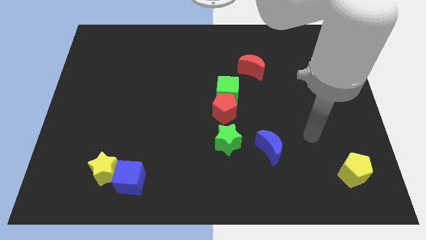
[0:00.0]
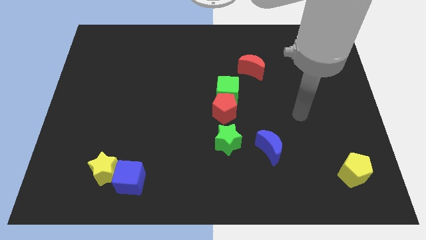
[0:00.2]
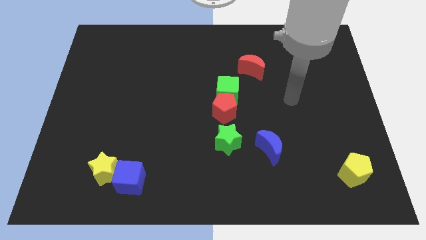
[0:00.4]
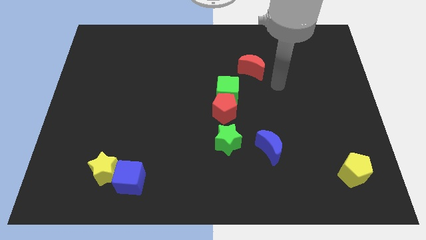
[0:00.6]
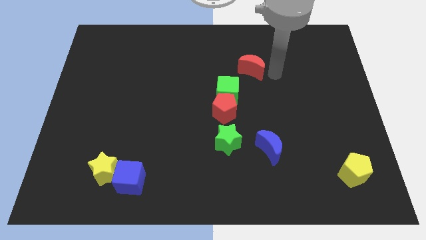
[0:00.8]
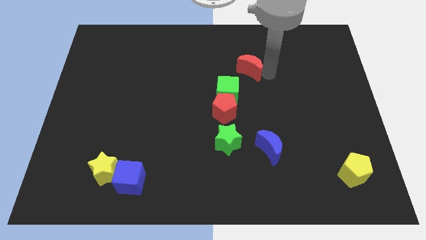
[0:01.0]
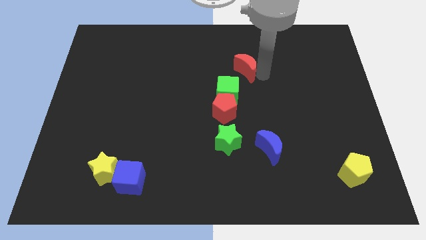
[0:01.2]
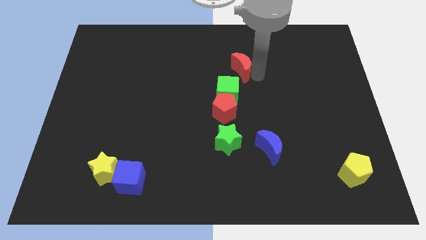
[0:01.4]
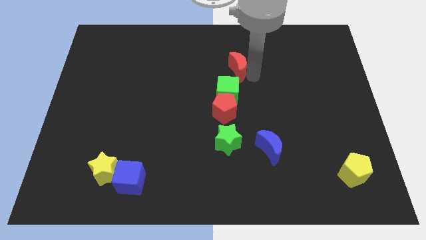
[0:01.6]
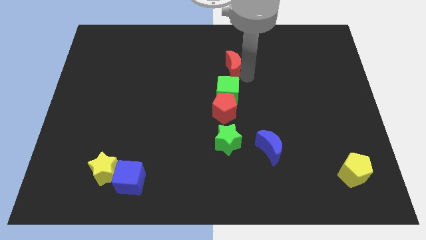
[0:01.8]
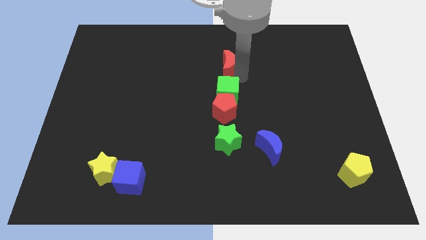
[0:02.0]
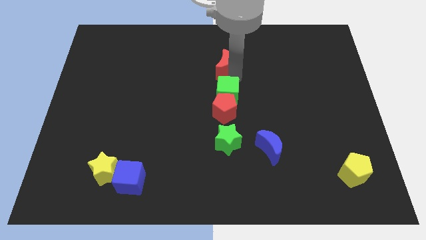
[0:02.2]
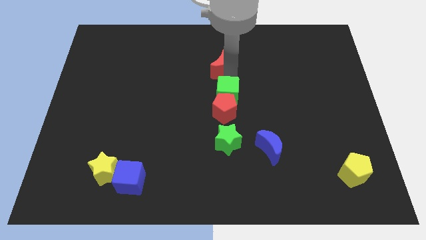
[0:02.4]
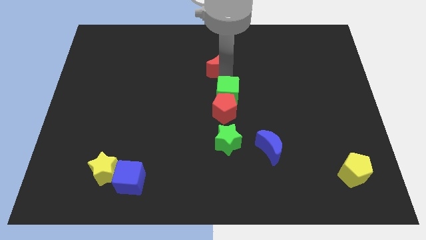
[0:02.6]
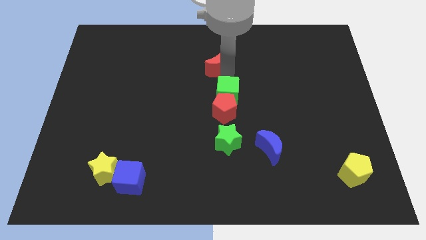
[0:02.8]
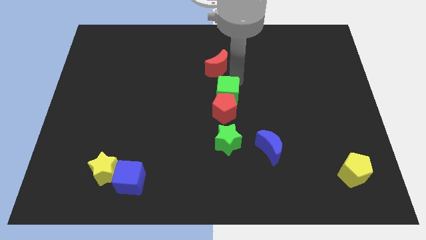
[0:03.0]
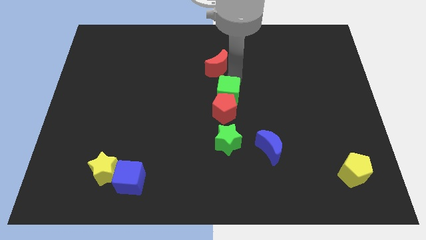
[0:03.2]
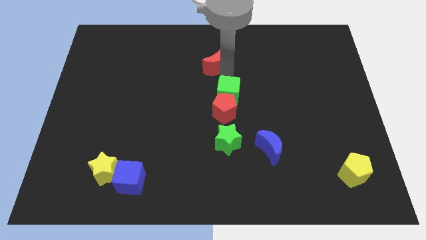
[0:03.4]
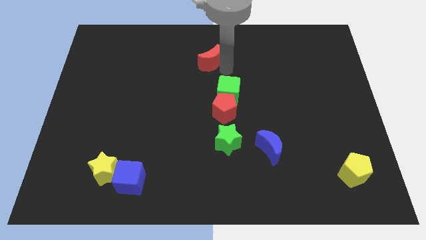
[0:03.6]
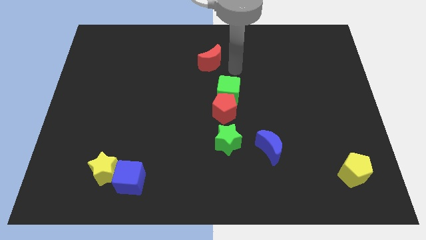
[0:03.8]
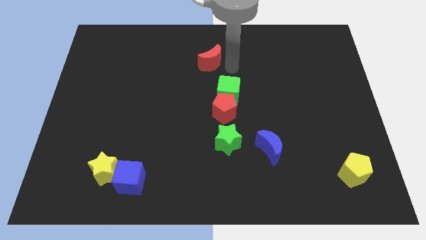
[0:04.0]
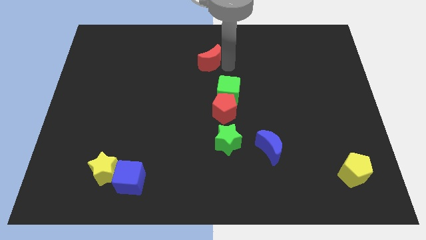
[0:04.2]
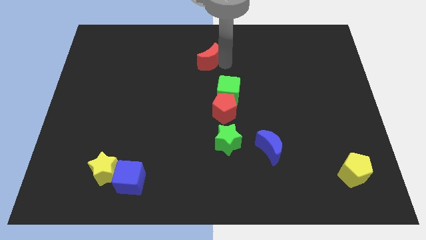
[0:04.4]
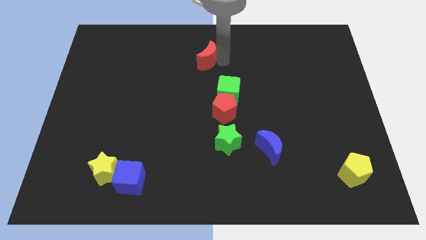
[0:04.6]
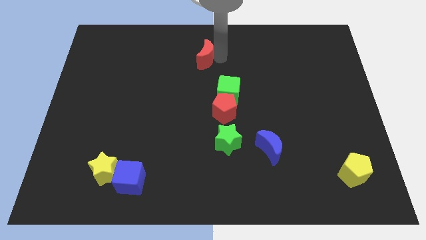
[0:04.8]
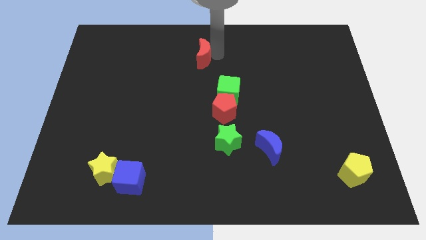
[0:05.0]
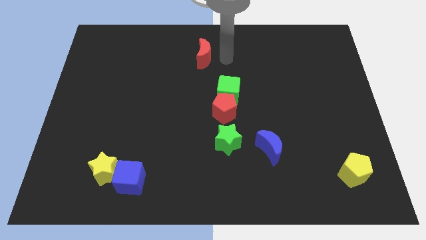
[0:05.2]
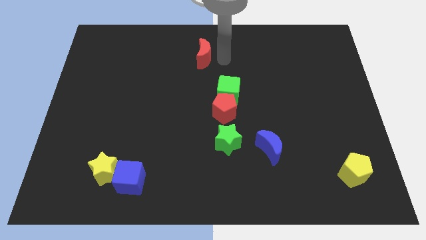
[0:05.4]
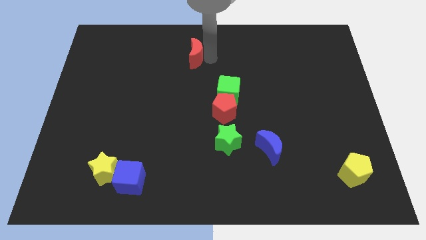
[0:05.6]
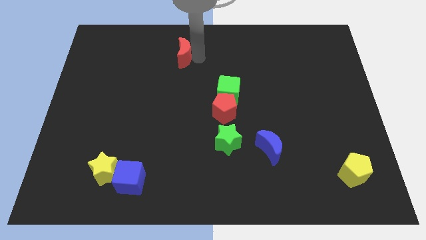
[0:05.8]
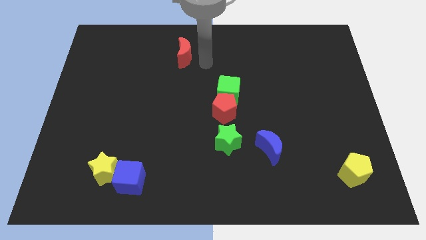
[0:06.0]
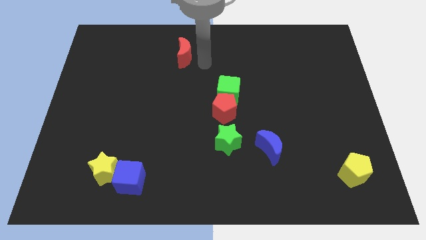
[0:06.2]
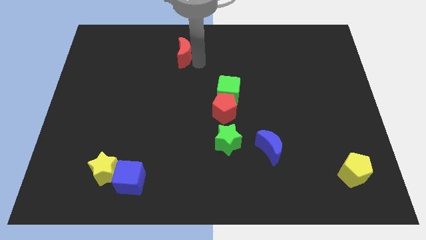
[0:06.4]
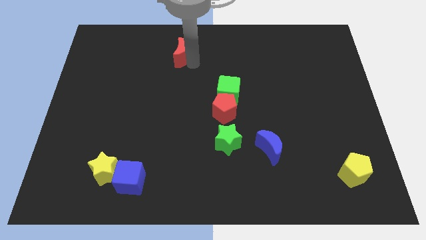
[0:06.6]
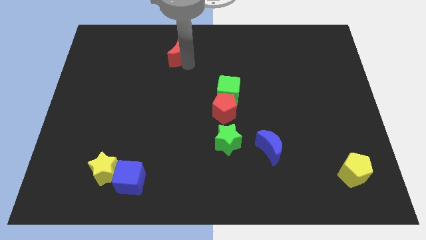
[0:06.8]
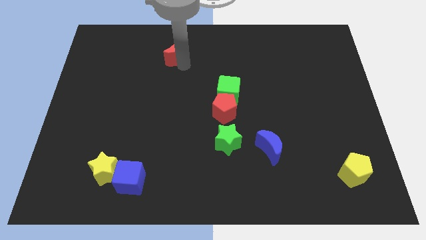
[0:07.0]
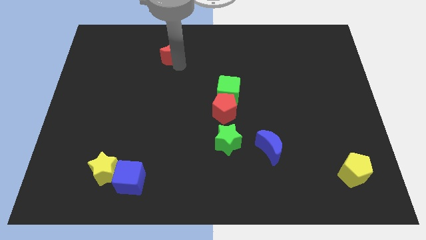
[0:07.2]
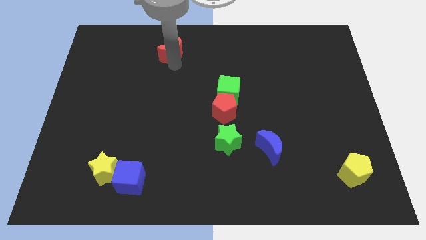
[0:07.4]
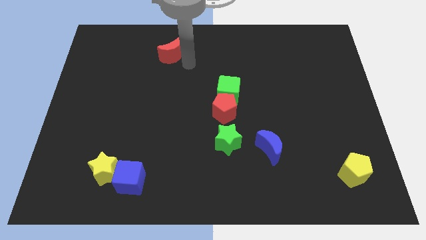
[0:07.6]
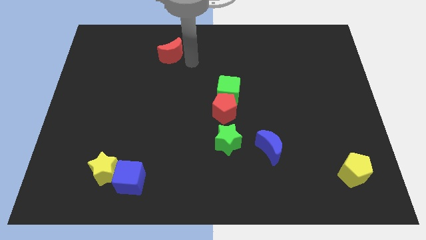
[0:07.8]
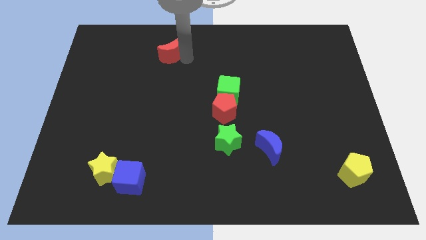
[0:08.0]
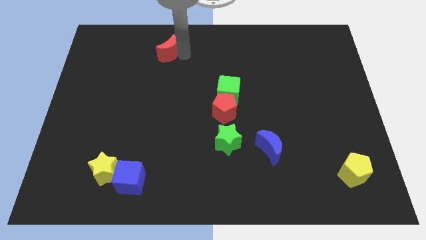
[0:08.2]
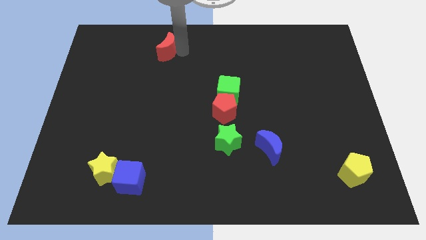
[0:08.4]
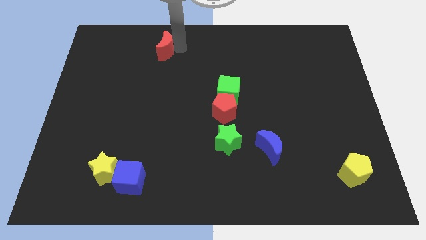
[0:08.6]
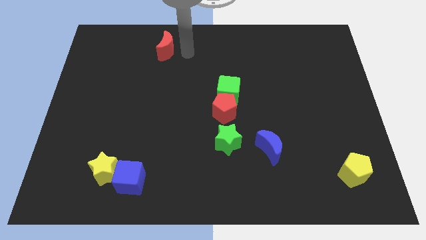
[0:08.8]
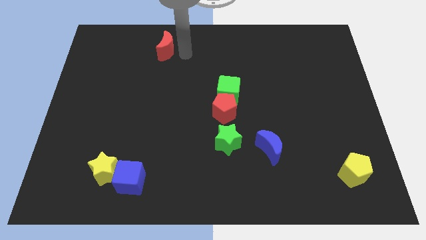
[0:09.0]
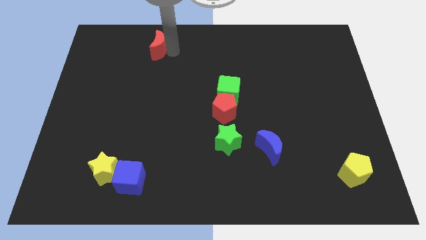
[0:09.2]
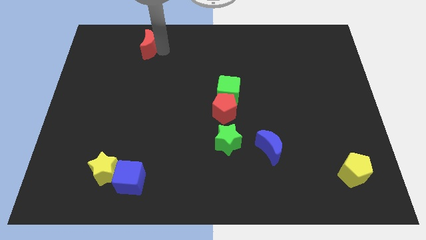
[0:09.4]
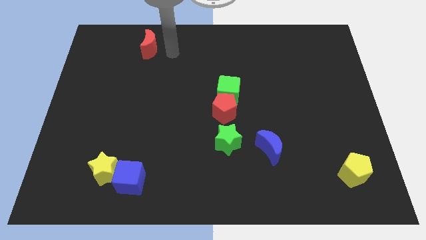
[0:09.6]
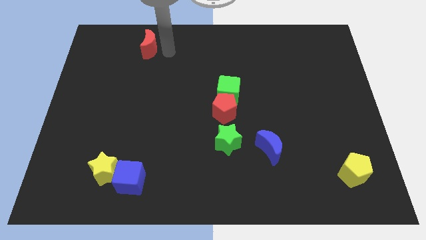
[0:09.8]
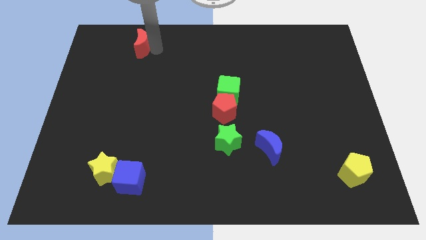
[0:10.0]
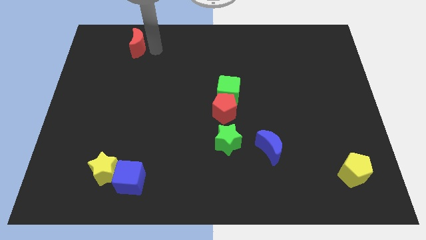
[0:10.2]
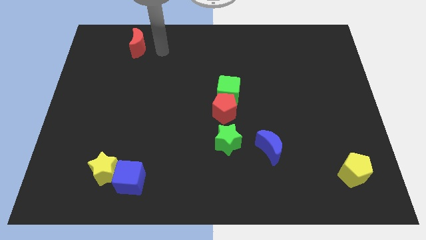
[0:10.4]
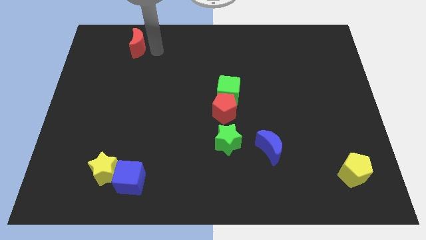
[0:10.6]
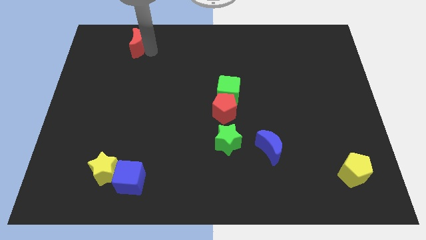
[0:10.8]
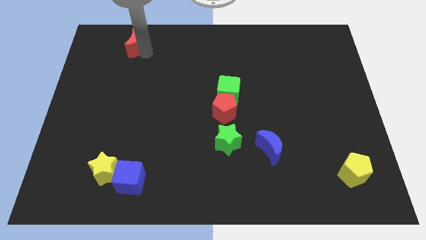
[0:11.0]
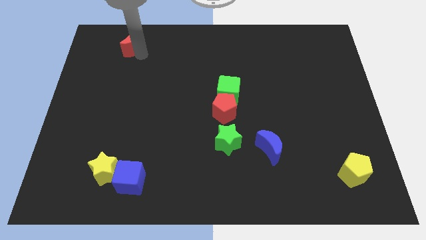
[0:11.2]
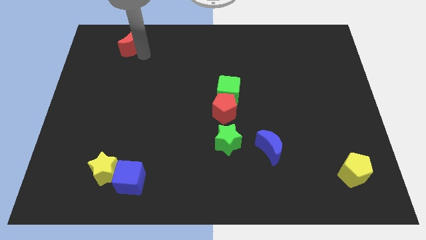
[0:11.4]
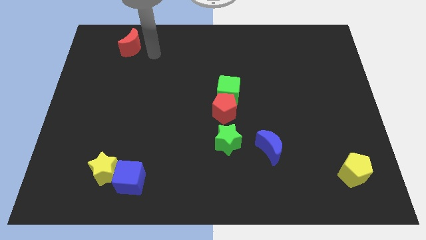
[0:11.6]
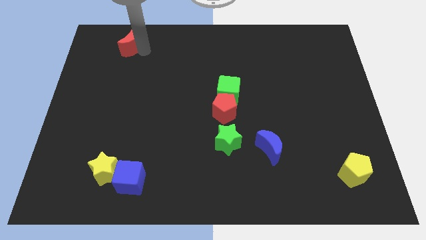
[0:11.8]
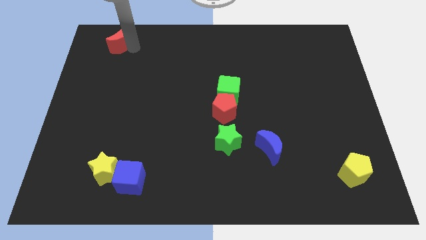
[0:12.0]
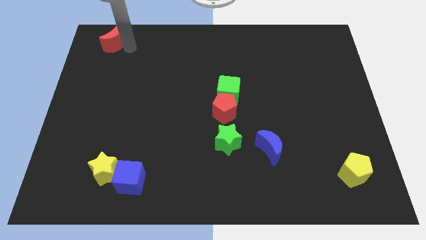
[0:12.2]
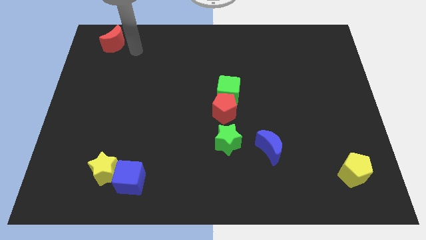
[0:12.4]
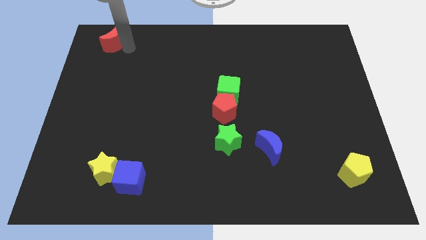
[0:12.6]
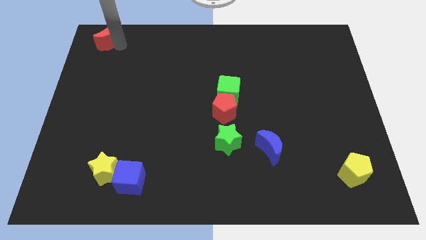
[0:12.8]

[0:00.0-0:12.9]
move the red moon to the top left of the board
